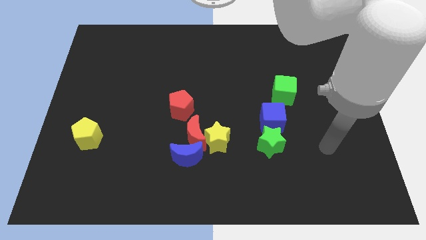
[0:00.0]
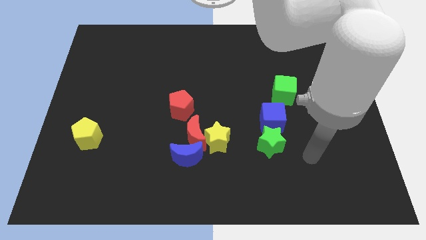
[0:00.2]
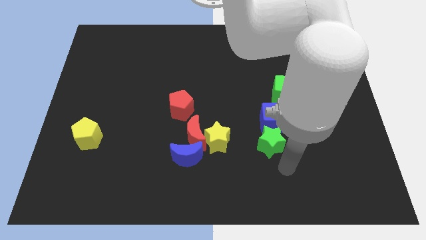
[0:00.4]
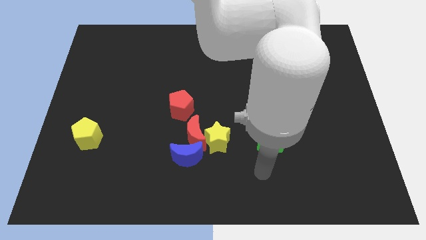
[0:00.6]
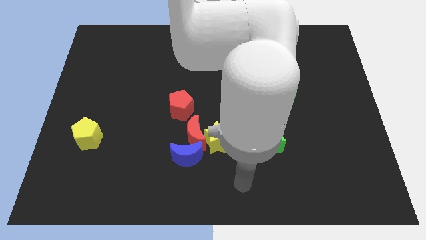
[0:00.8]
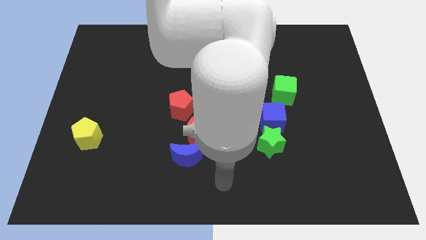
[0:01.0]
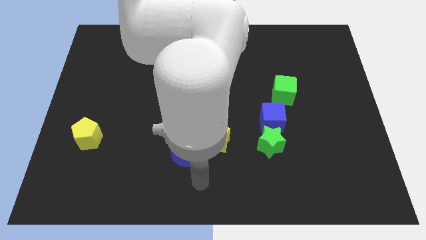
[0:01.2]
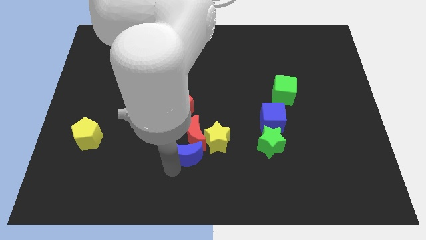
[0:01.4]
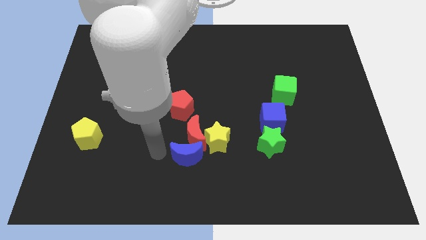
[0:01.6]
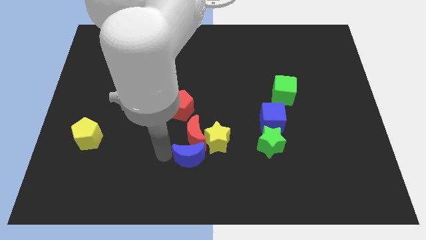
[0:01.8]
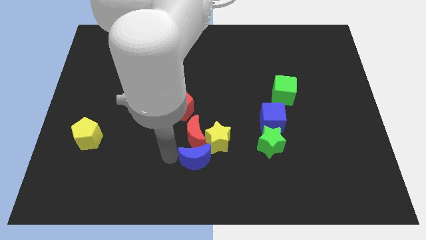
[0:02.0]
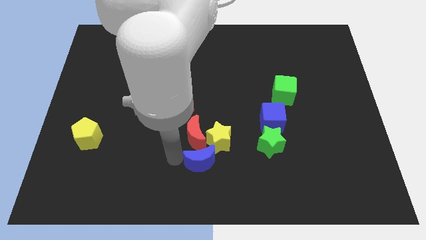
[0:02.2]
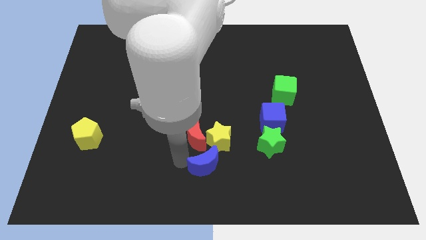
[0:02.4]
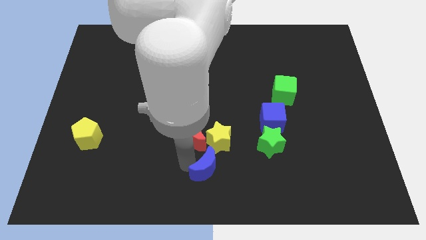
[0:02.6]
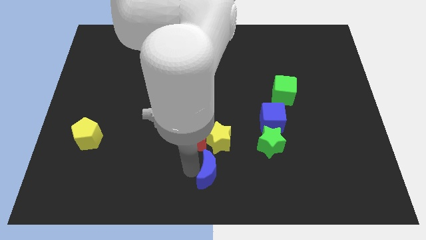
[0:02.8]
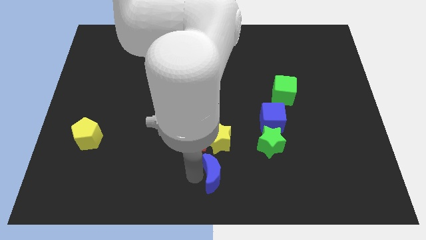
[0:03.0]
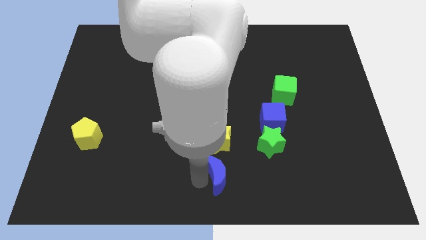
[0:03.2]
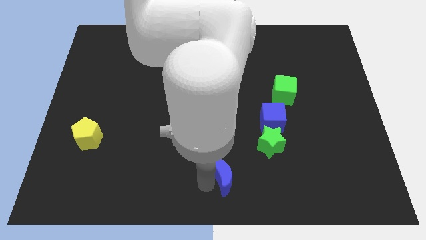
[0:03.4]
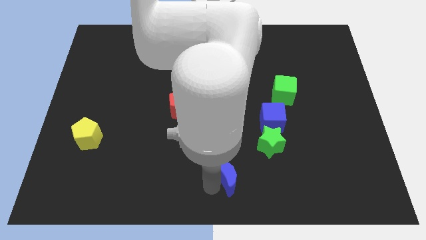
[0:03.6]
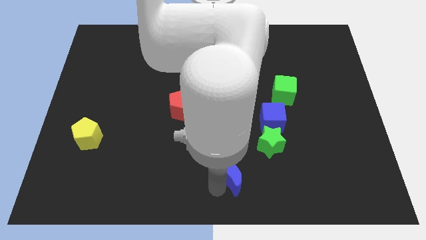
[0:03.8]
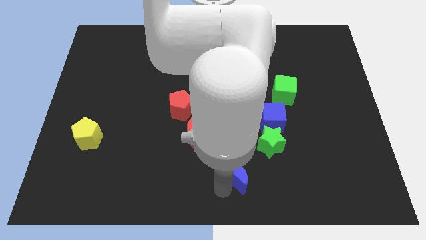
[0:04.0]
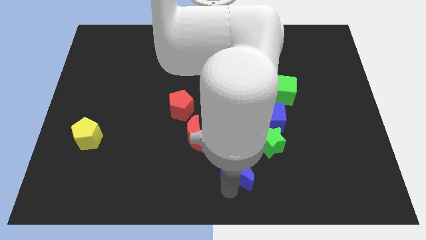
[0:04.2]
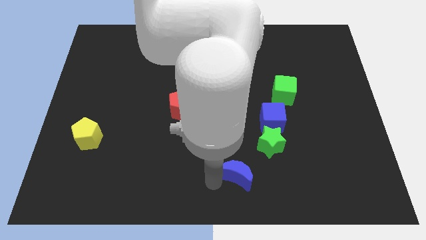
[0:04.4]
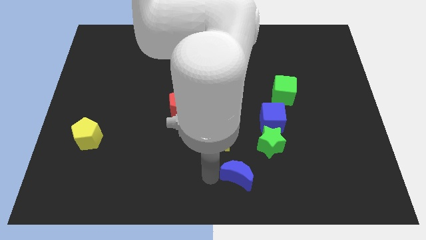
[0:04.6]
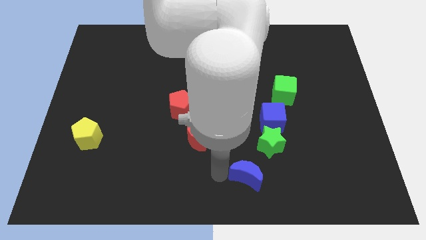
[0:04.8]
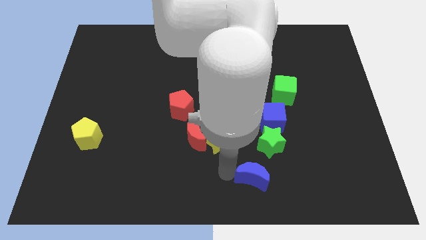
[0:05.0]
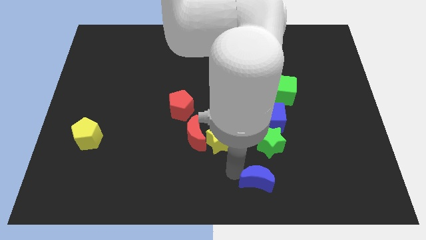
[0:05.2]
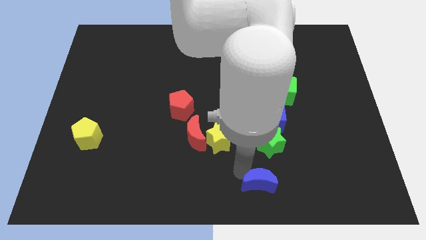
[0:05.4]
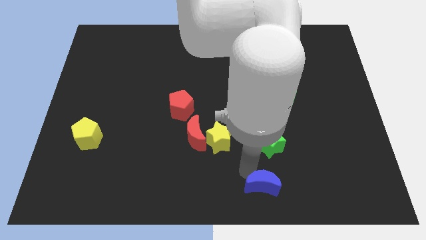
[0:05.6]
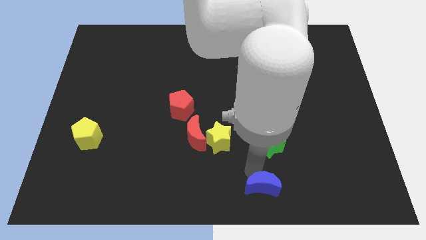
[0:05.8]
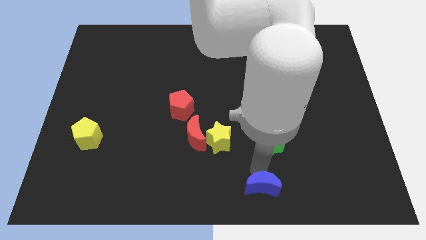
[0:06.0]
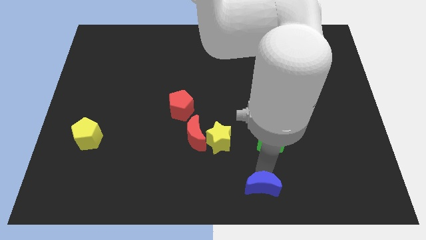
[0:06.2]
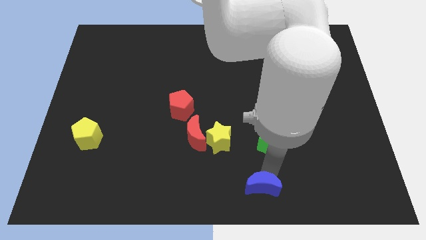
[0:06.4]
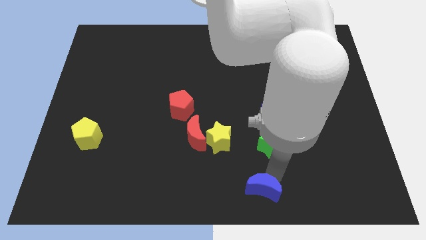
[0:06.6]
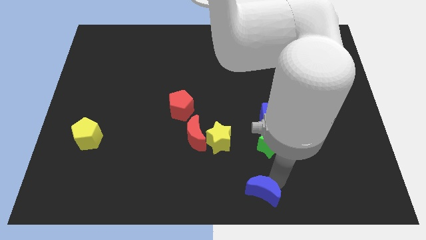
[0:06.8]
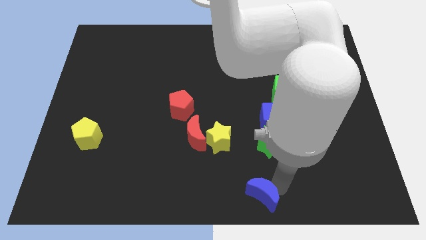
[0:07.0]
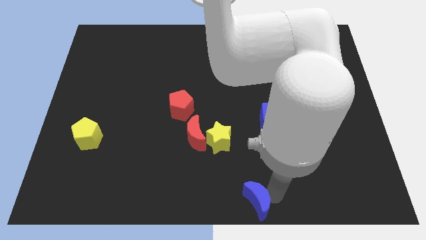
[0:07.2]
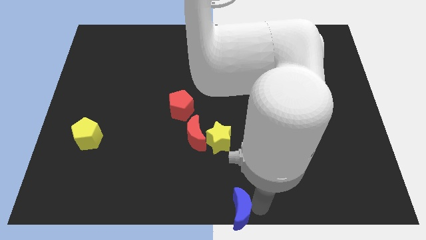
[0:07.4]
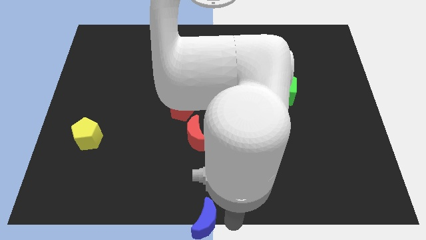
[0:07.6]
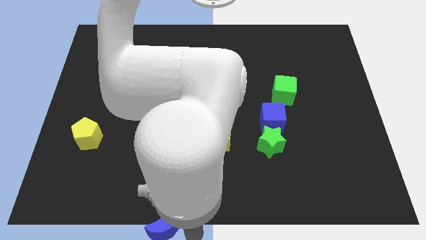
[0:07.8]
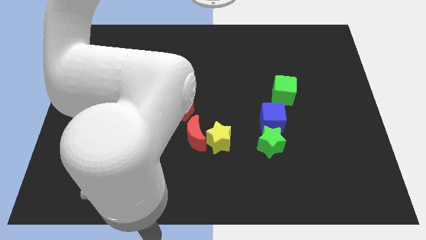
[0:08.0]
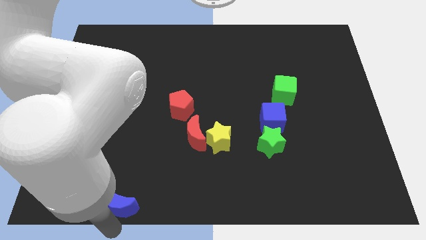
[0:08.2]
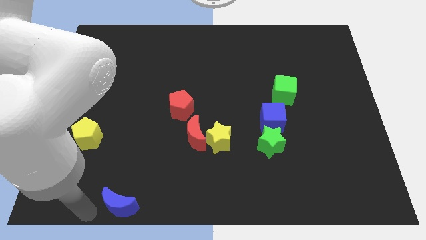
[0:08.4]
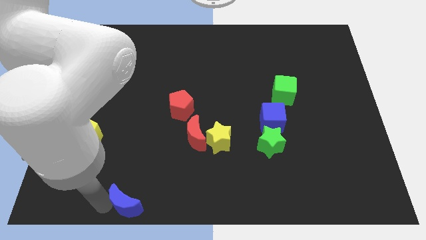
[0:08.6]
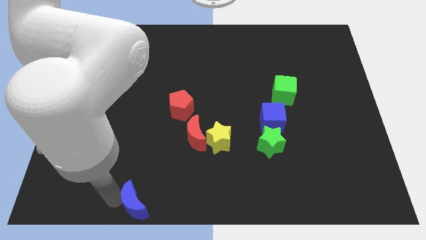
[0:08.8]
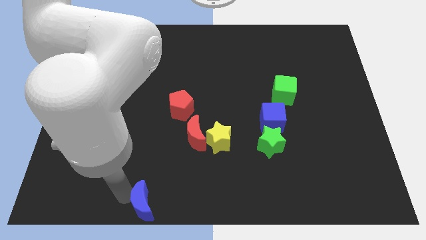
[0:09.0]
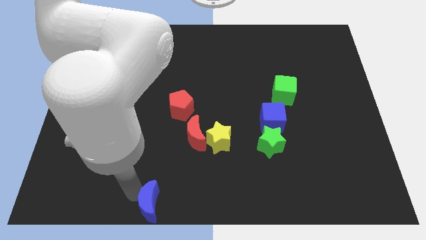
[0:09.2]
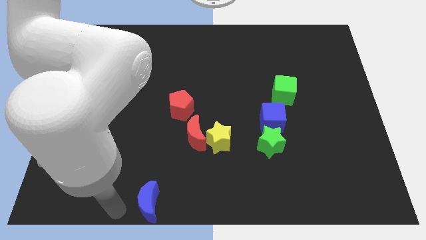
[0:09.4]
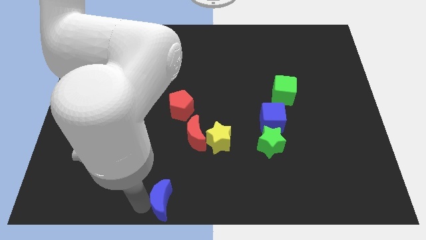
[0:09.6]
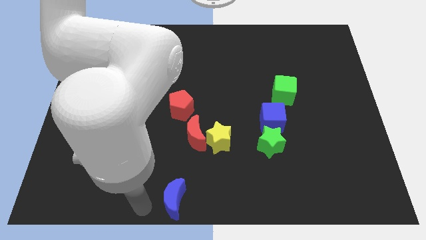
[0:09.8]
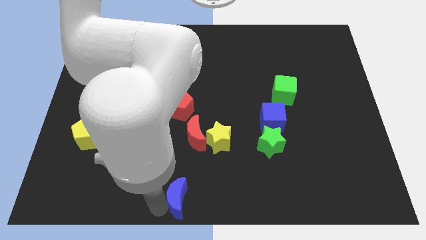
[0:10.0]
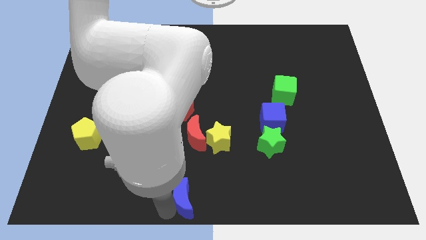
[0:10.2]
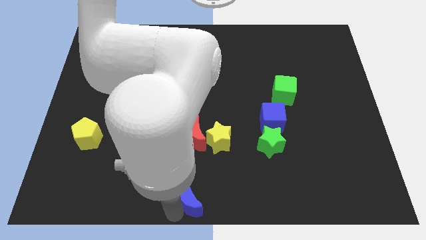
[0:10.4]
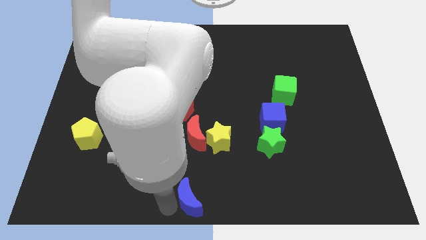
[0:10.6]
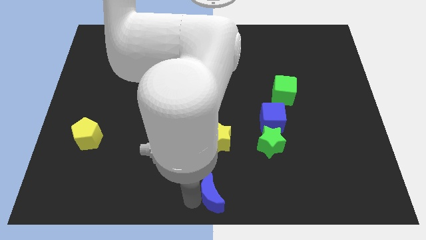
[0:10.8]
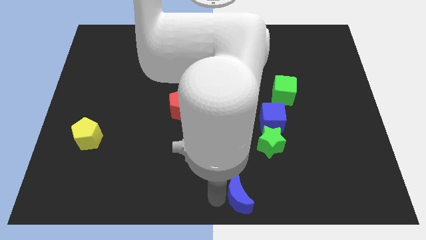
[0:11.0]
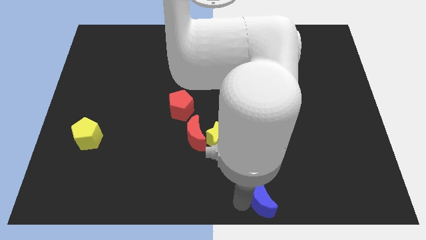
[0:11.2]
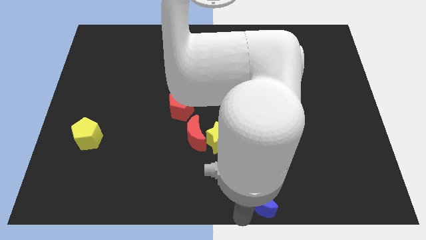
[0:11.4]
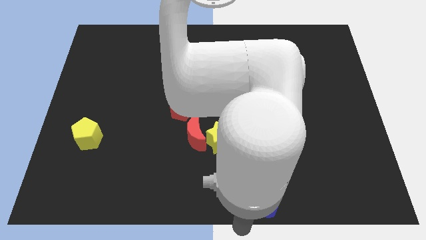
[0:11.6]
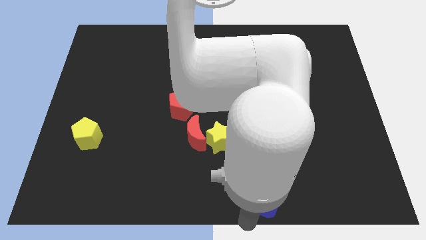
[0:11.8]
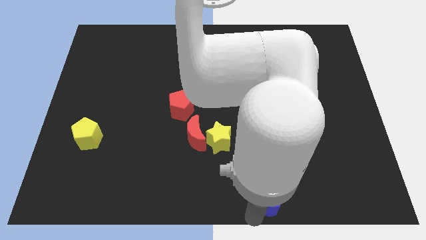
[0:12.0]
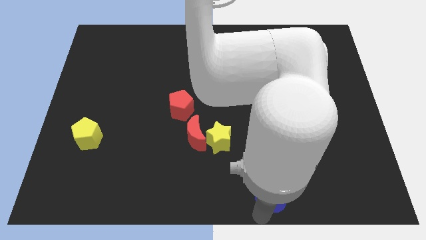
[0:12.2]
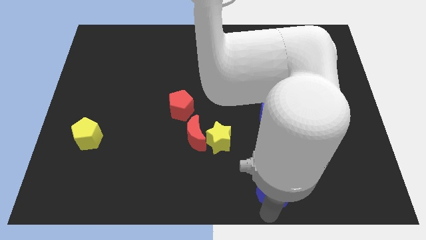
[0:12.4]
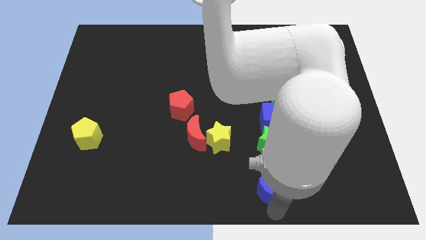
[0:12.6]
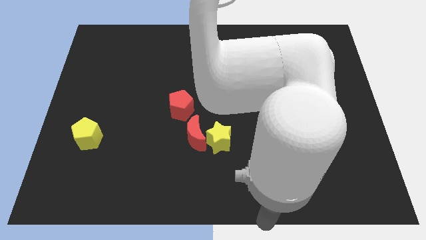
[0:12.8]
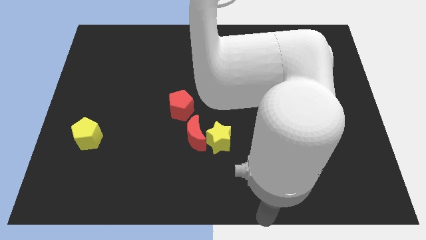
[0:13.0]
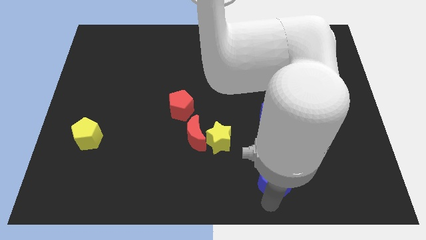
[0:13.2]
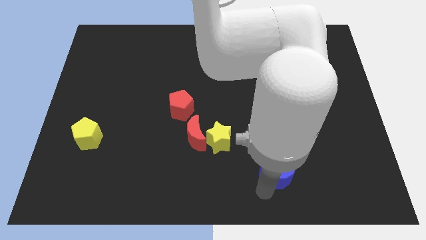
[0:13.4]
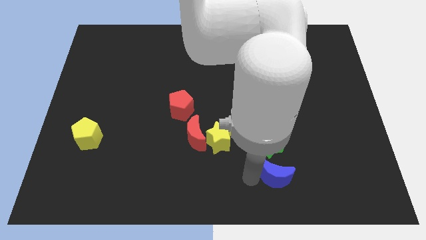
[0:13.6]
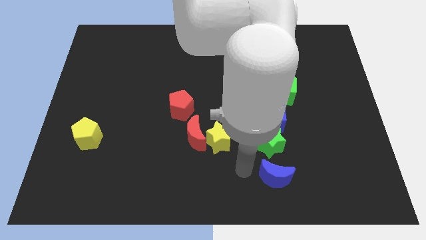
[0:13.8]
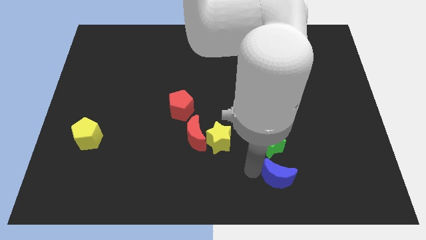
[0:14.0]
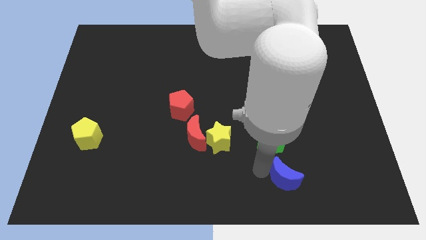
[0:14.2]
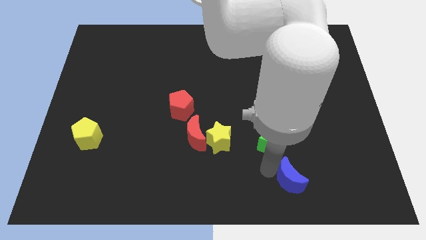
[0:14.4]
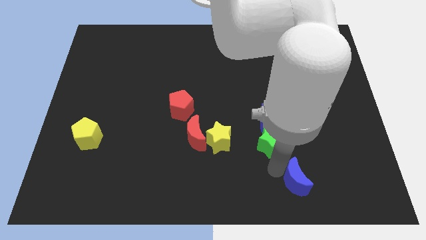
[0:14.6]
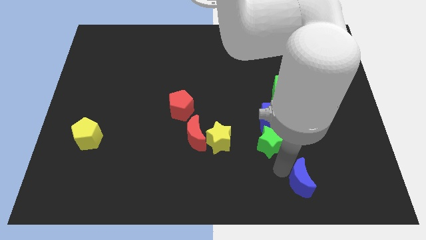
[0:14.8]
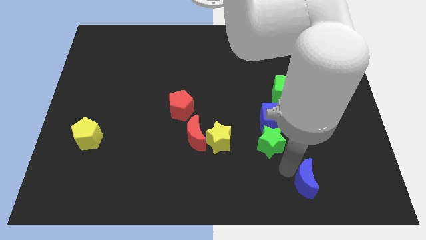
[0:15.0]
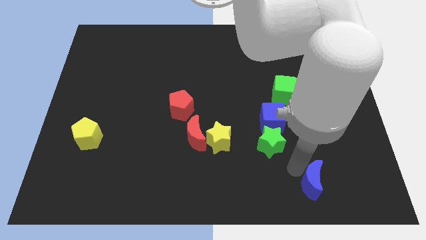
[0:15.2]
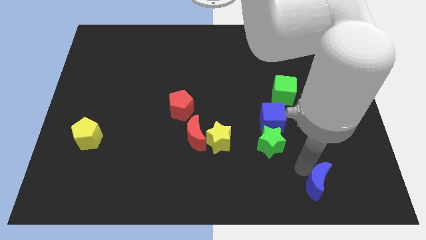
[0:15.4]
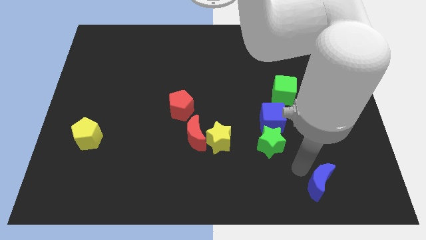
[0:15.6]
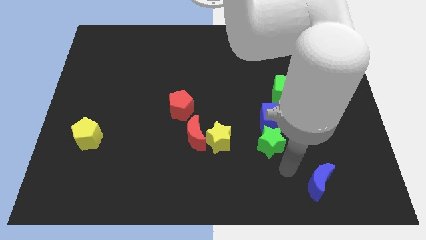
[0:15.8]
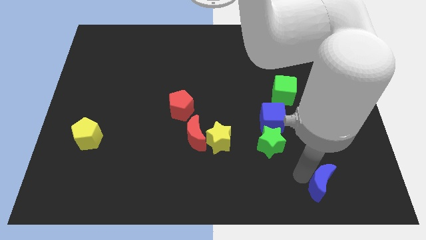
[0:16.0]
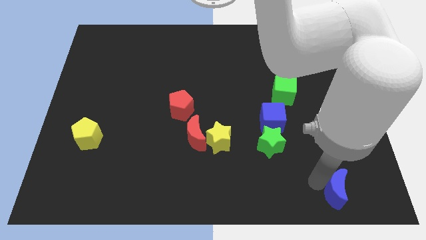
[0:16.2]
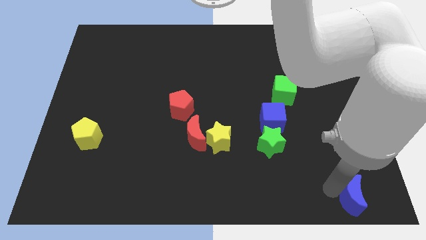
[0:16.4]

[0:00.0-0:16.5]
move the blue moon to the bottom right of the board
